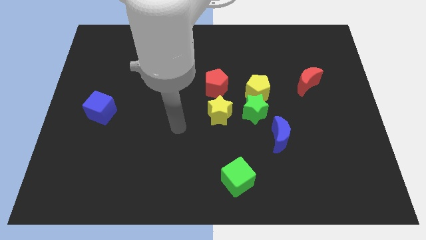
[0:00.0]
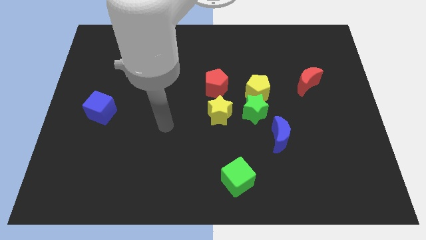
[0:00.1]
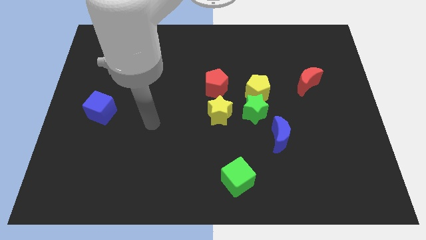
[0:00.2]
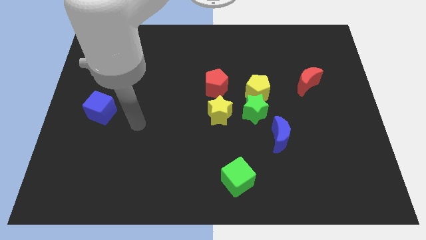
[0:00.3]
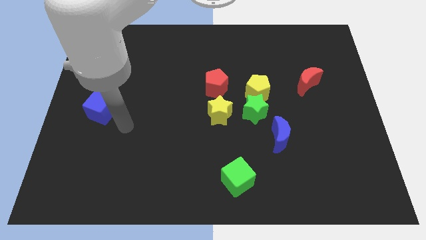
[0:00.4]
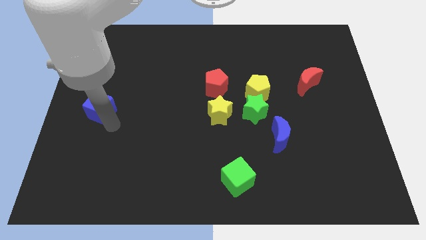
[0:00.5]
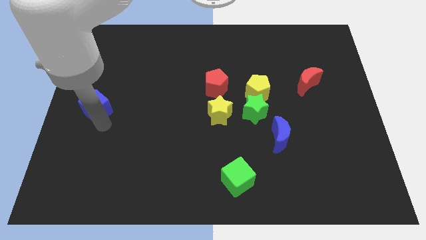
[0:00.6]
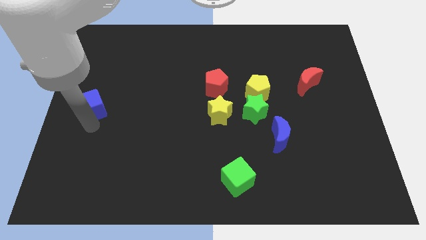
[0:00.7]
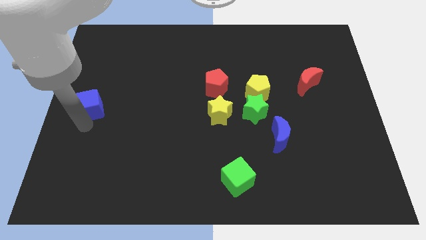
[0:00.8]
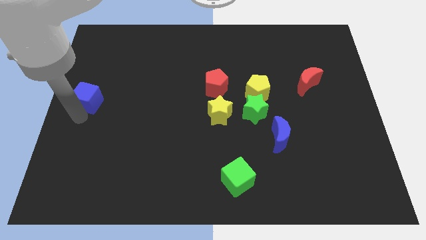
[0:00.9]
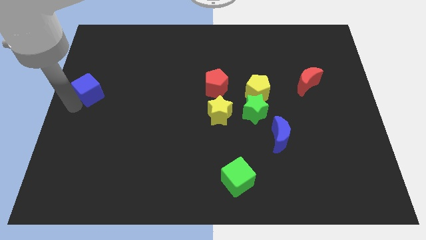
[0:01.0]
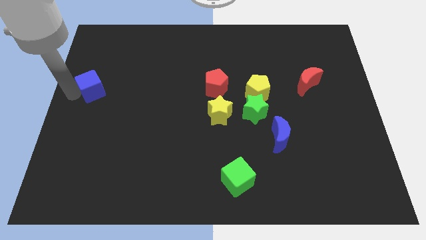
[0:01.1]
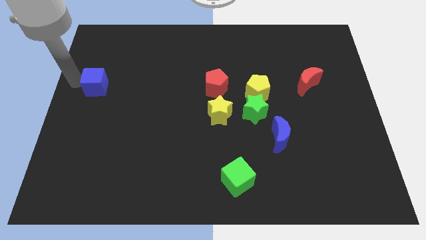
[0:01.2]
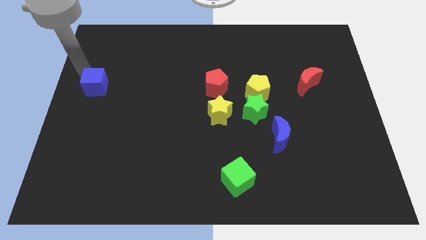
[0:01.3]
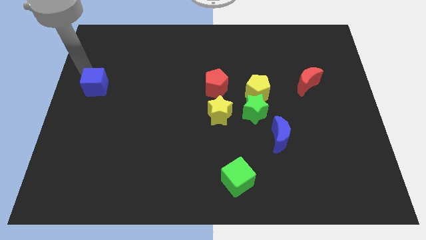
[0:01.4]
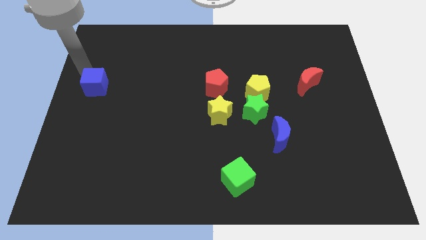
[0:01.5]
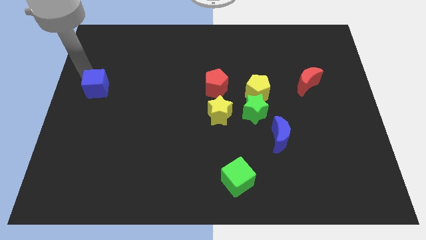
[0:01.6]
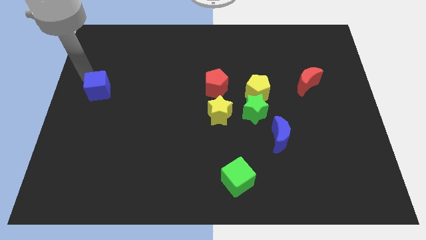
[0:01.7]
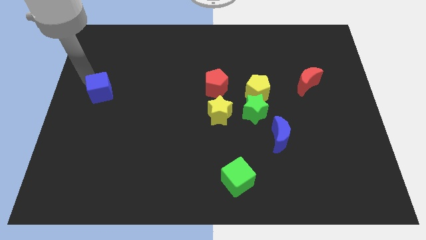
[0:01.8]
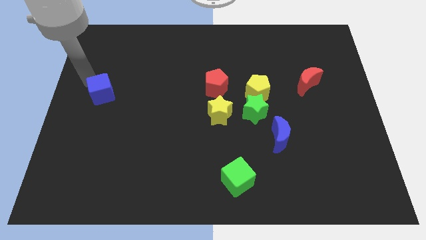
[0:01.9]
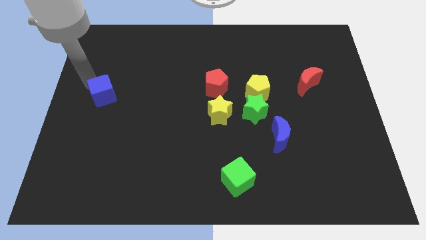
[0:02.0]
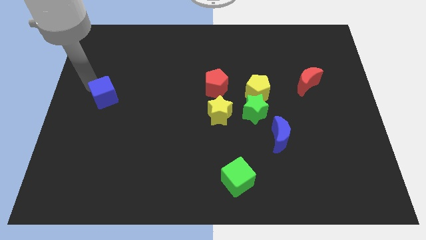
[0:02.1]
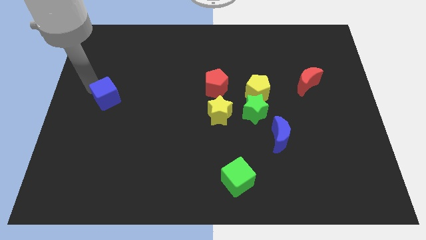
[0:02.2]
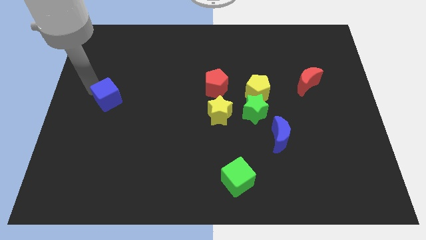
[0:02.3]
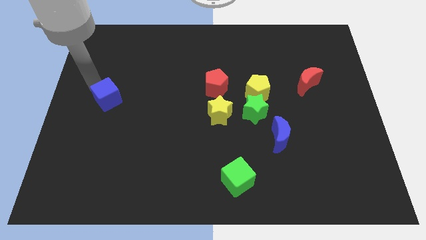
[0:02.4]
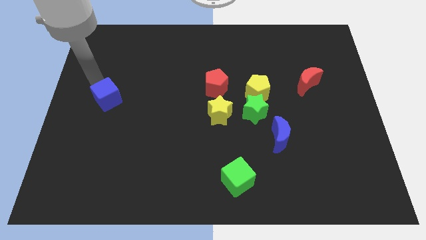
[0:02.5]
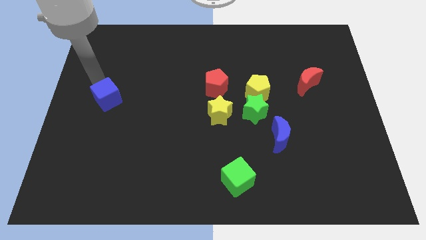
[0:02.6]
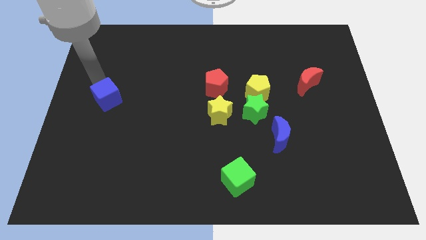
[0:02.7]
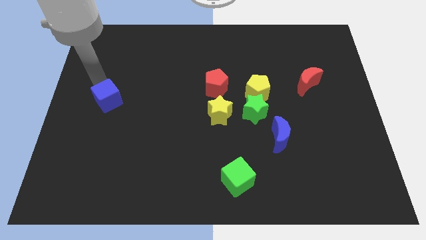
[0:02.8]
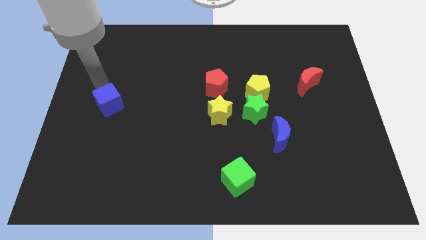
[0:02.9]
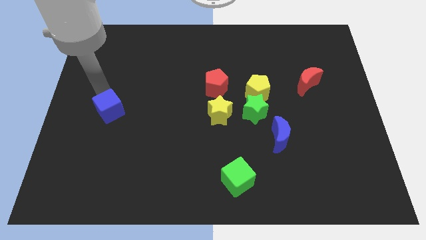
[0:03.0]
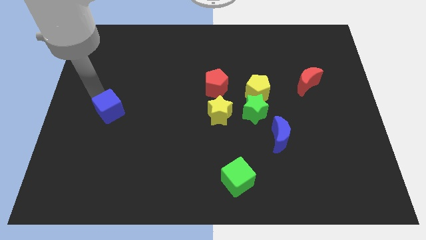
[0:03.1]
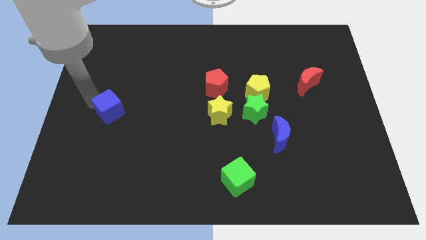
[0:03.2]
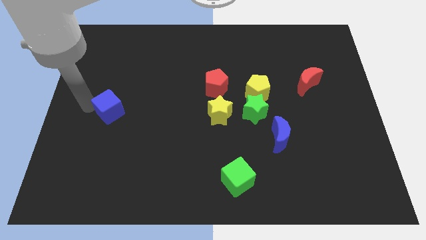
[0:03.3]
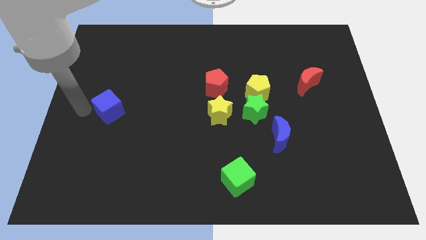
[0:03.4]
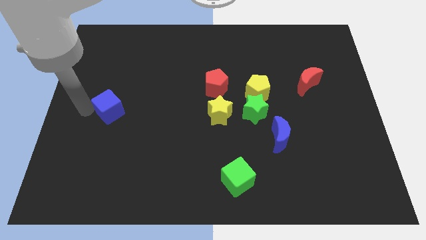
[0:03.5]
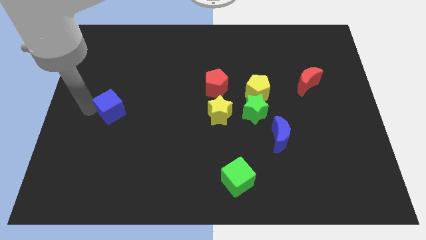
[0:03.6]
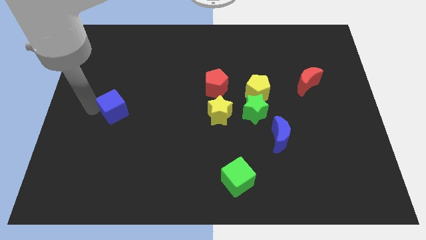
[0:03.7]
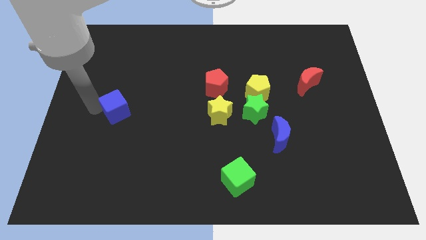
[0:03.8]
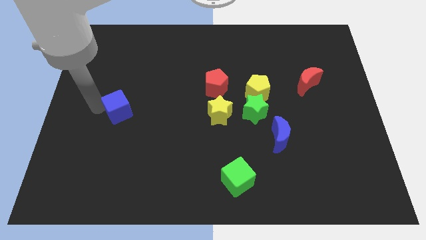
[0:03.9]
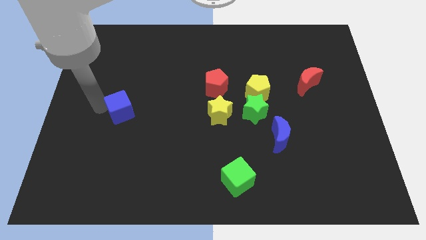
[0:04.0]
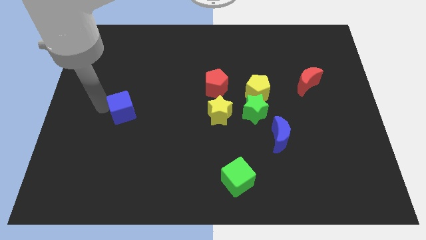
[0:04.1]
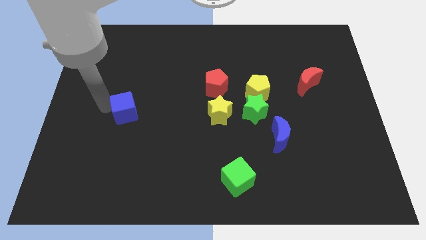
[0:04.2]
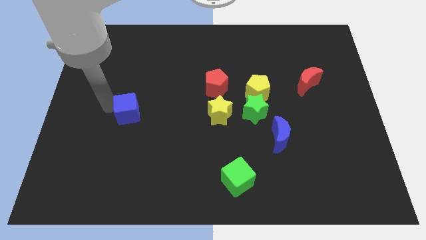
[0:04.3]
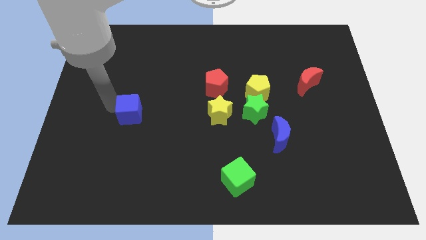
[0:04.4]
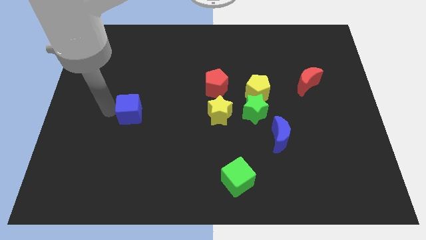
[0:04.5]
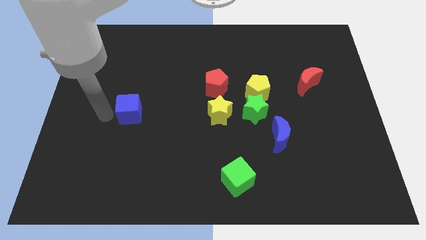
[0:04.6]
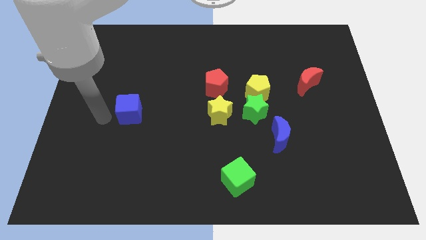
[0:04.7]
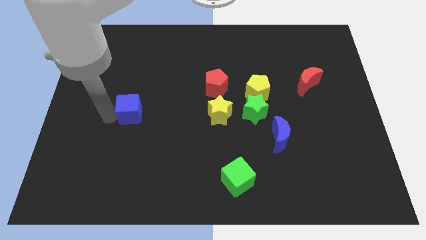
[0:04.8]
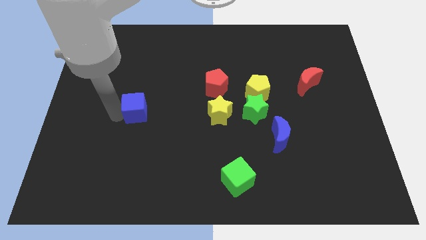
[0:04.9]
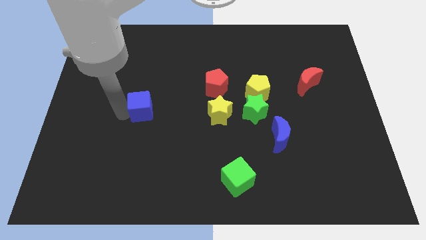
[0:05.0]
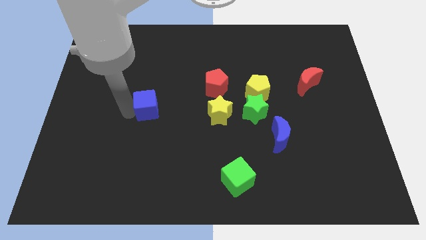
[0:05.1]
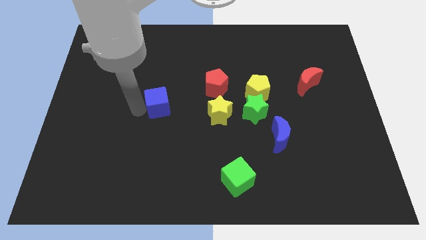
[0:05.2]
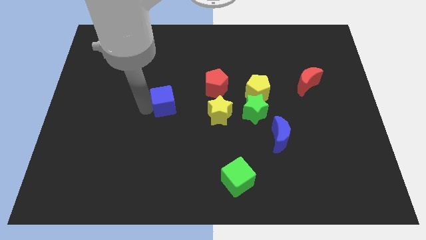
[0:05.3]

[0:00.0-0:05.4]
slide the blue cube to the middle of the board

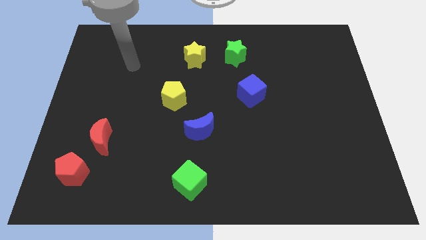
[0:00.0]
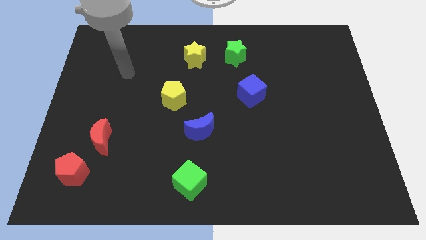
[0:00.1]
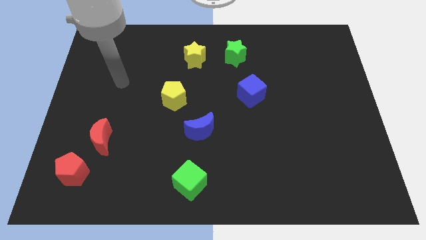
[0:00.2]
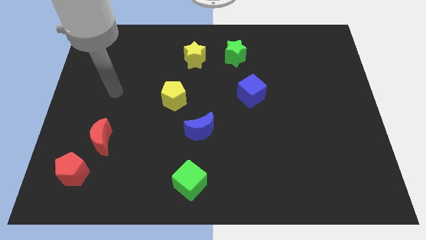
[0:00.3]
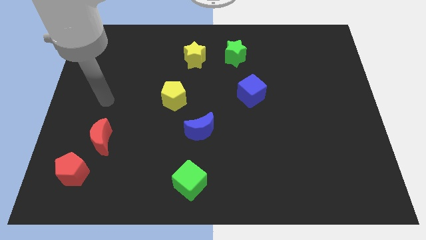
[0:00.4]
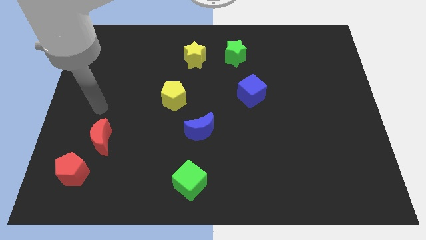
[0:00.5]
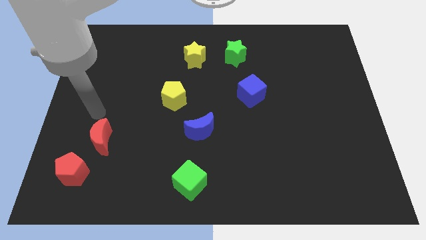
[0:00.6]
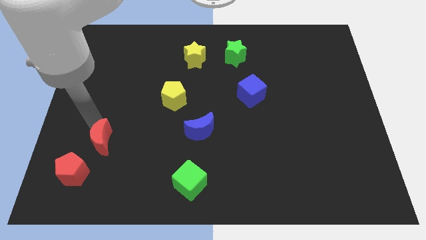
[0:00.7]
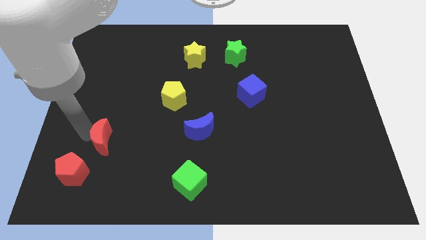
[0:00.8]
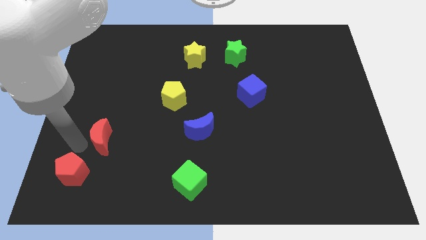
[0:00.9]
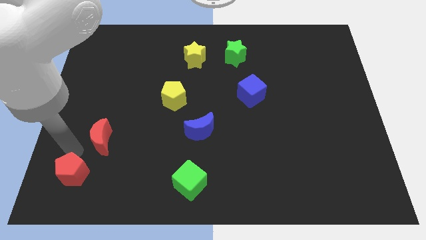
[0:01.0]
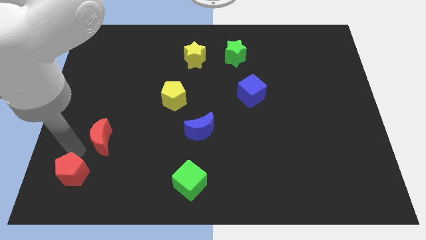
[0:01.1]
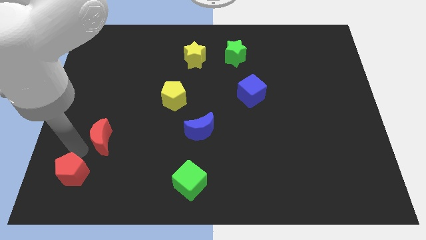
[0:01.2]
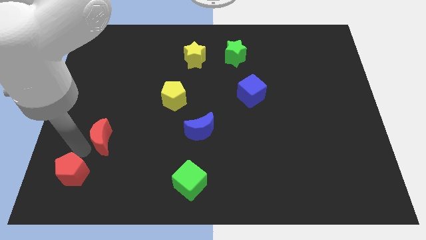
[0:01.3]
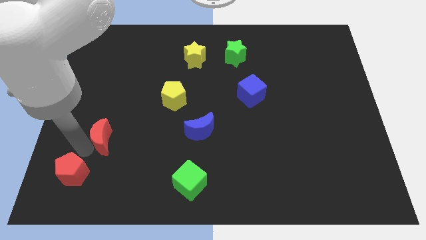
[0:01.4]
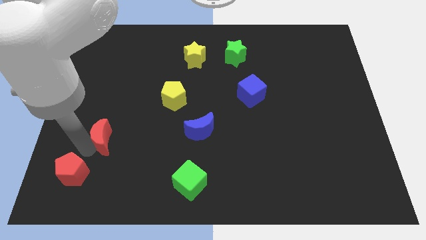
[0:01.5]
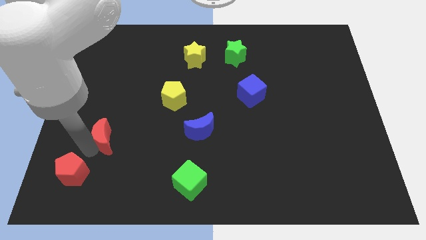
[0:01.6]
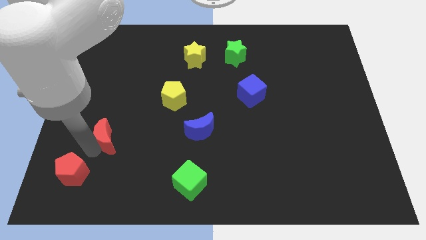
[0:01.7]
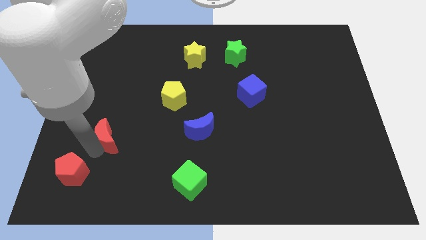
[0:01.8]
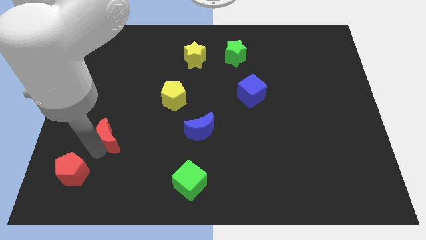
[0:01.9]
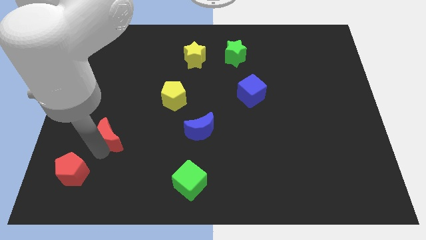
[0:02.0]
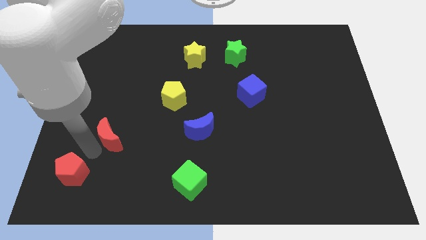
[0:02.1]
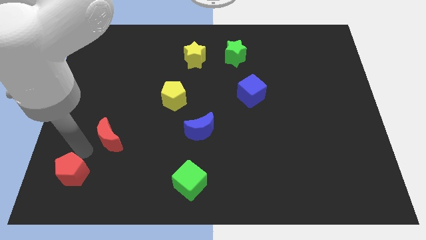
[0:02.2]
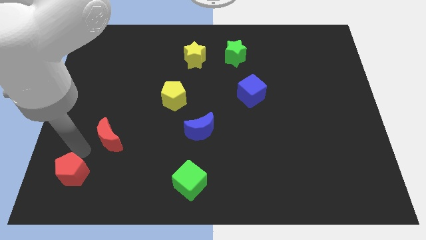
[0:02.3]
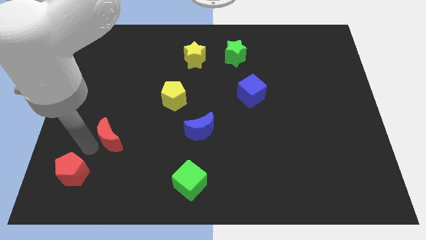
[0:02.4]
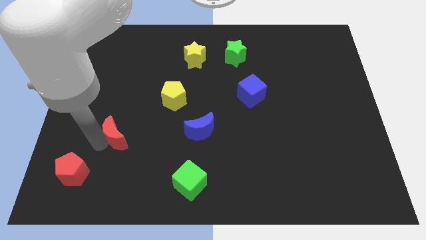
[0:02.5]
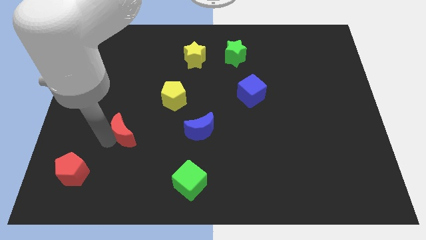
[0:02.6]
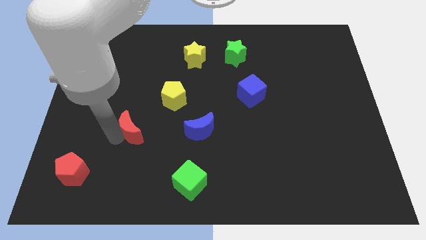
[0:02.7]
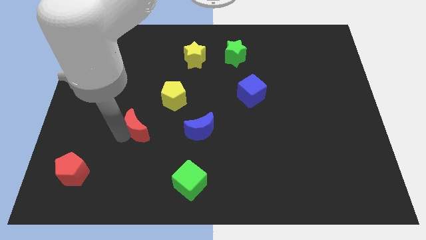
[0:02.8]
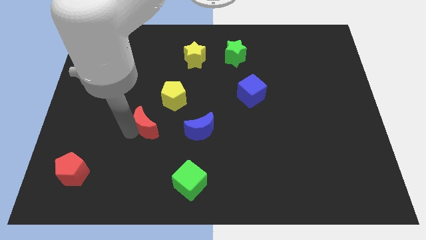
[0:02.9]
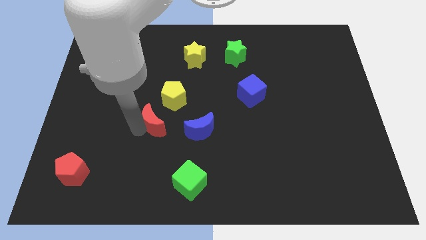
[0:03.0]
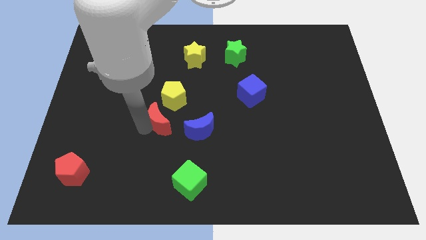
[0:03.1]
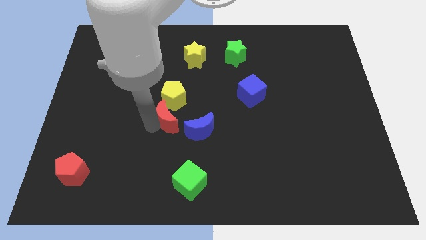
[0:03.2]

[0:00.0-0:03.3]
slide the red moon to the center of the board
